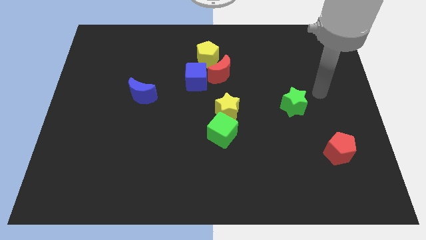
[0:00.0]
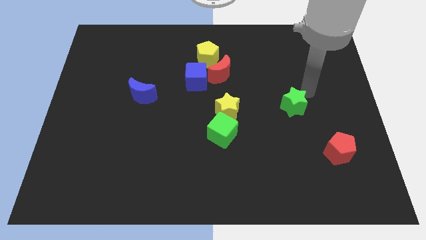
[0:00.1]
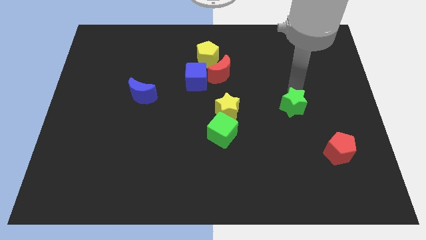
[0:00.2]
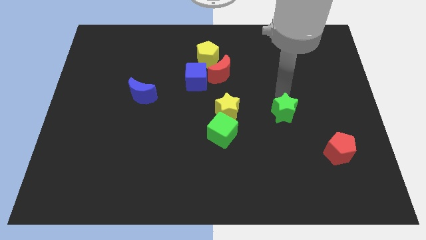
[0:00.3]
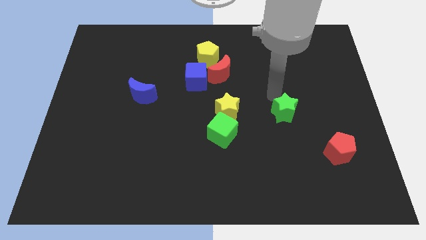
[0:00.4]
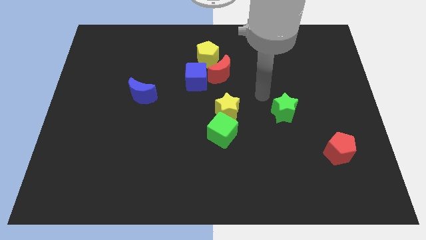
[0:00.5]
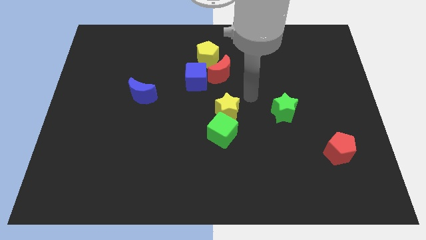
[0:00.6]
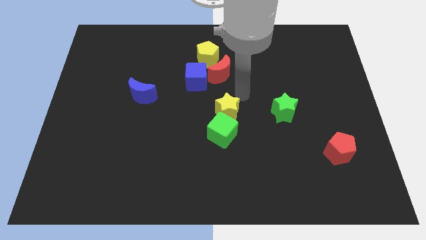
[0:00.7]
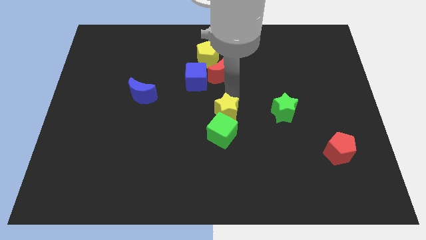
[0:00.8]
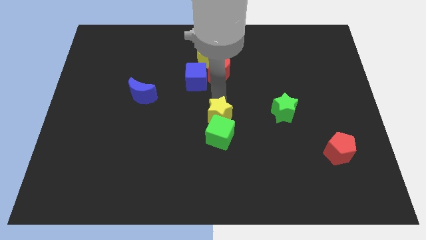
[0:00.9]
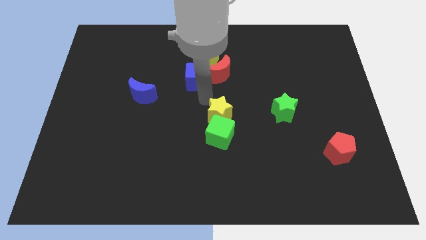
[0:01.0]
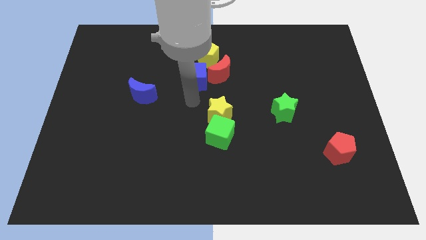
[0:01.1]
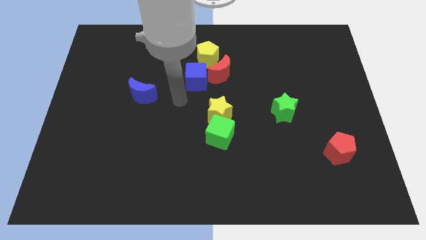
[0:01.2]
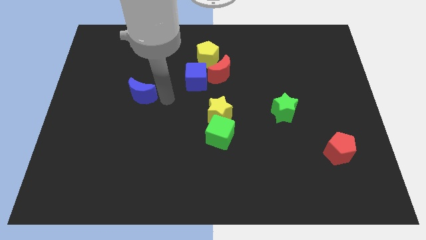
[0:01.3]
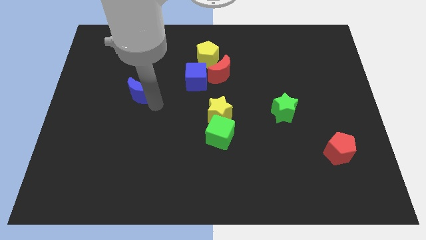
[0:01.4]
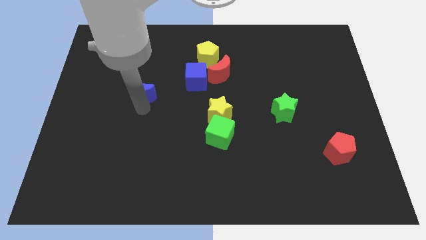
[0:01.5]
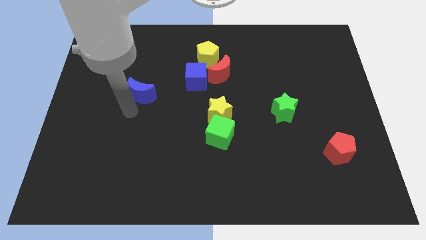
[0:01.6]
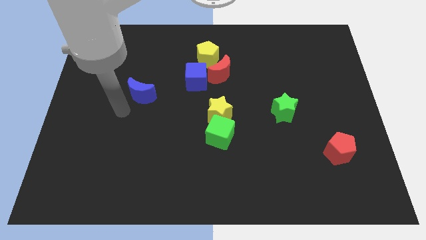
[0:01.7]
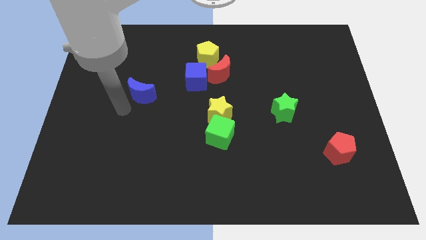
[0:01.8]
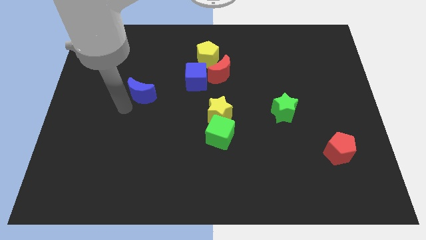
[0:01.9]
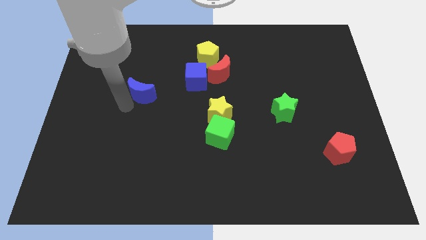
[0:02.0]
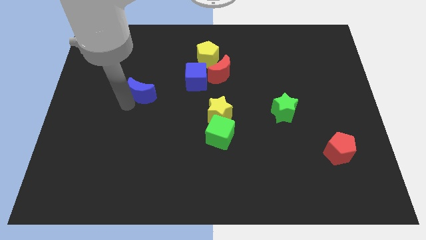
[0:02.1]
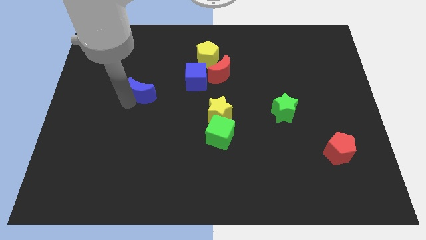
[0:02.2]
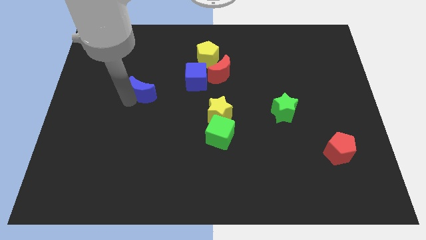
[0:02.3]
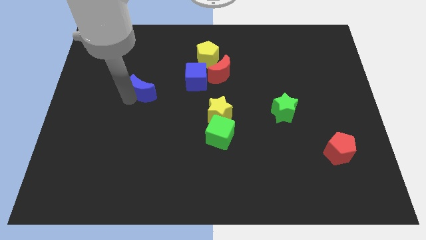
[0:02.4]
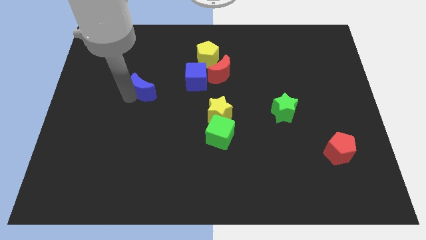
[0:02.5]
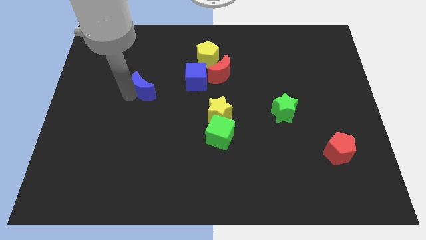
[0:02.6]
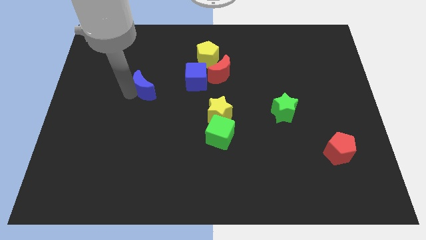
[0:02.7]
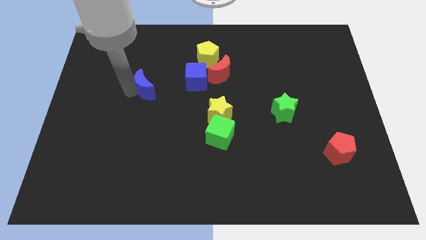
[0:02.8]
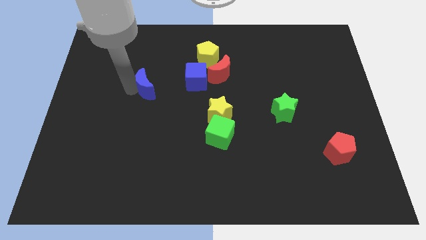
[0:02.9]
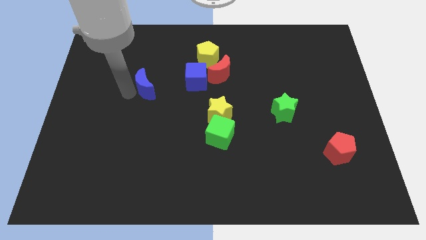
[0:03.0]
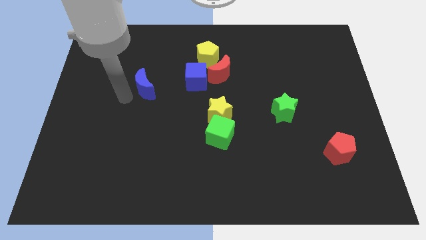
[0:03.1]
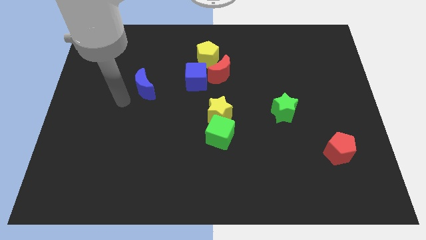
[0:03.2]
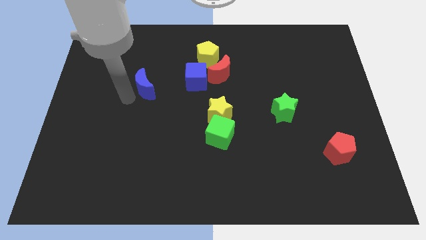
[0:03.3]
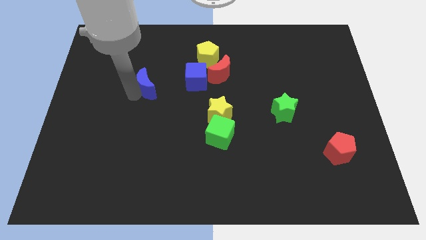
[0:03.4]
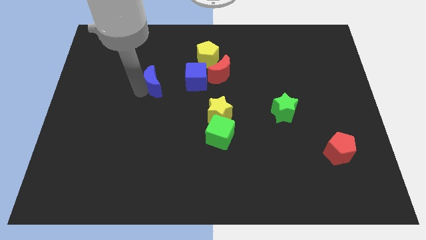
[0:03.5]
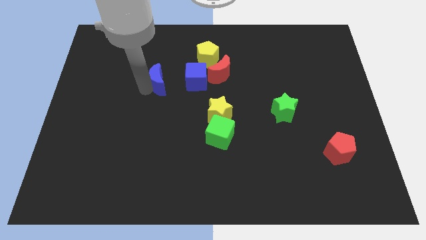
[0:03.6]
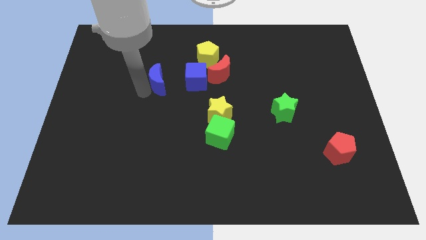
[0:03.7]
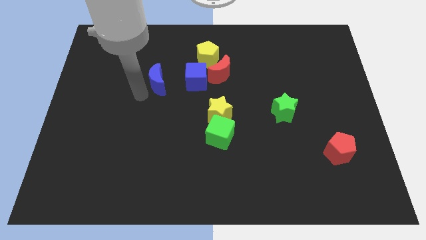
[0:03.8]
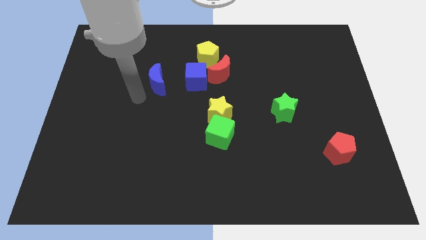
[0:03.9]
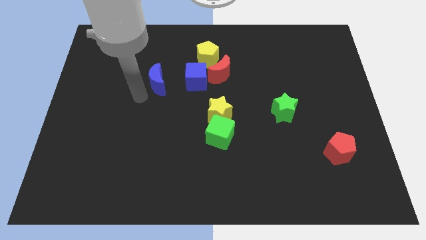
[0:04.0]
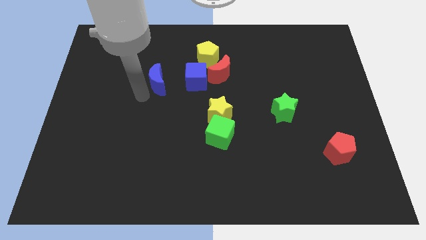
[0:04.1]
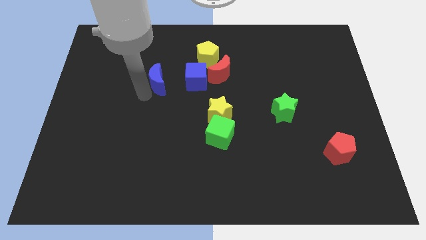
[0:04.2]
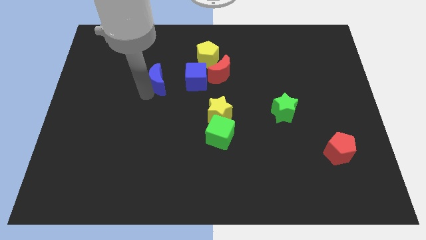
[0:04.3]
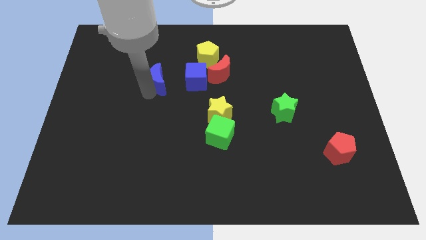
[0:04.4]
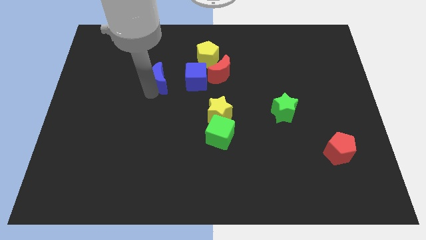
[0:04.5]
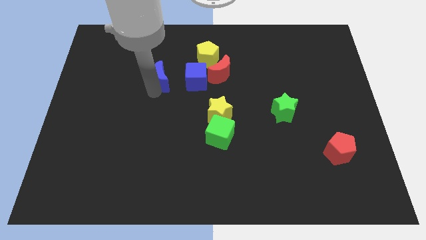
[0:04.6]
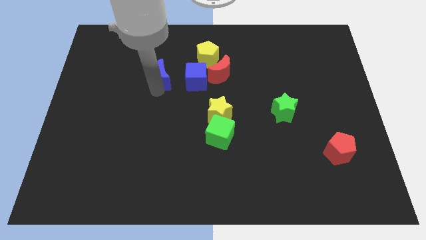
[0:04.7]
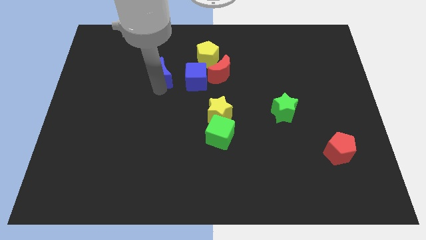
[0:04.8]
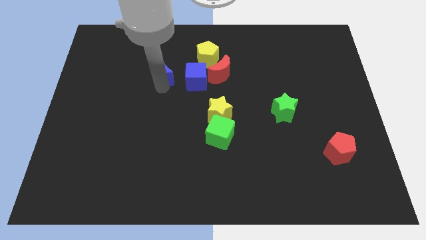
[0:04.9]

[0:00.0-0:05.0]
slide the blue moon diagonally up and to the left of the blue cube

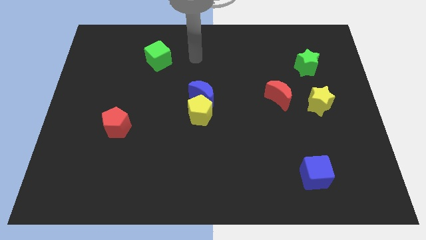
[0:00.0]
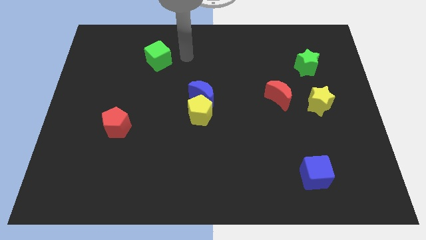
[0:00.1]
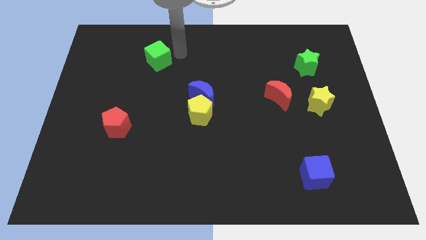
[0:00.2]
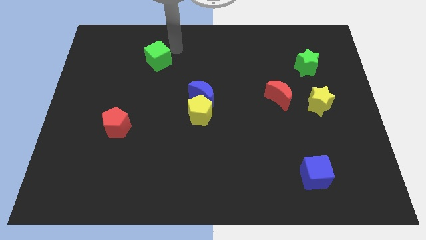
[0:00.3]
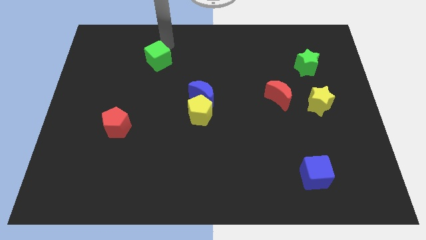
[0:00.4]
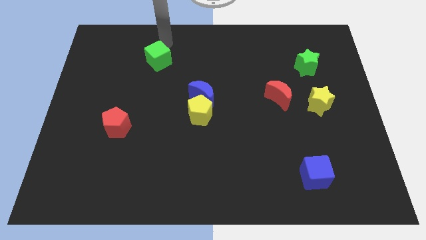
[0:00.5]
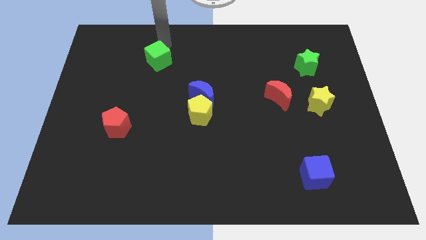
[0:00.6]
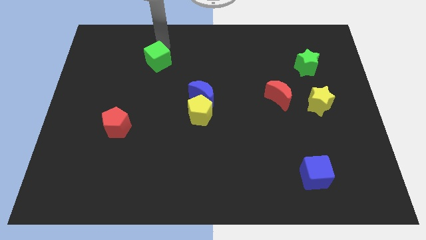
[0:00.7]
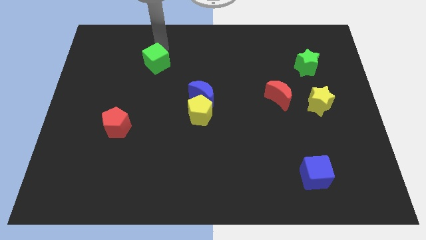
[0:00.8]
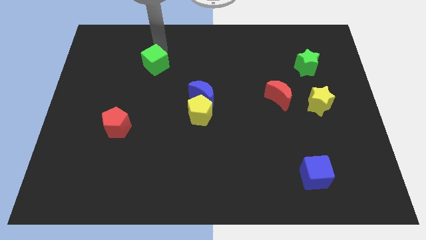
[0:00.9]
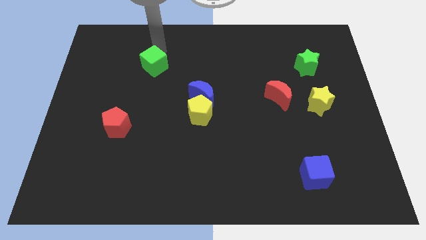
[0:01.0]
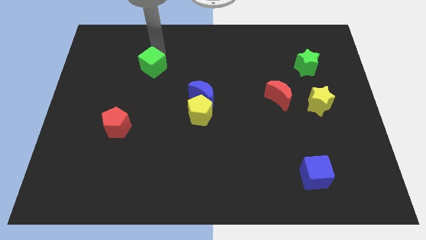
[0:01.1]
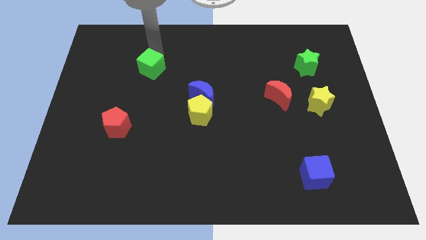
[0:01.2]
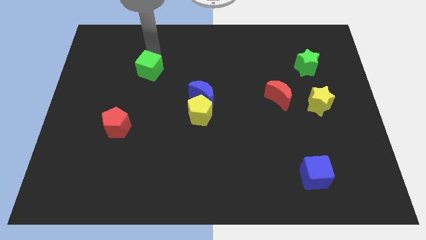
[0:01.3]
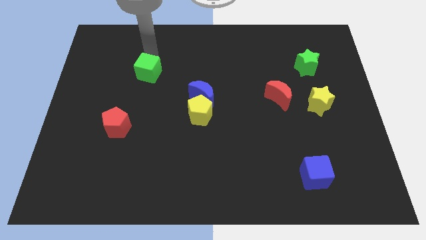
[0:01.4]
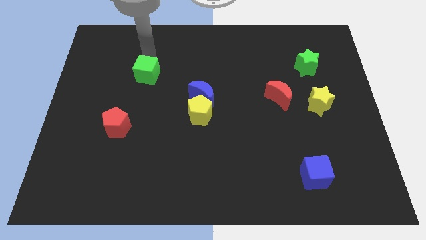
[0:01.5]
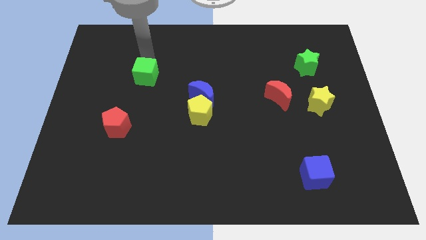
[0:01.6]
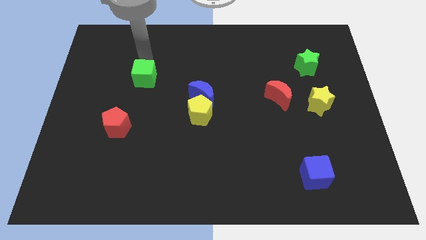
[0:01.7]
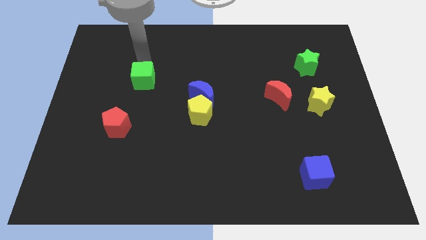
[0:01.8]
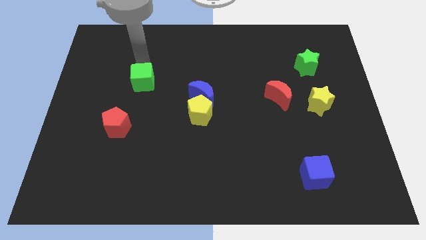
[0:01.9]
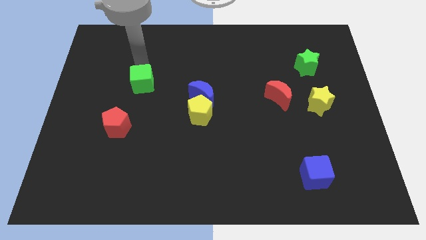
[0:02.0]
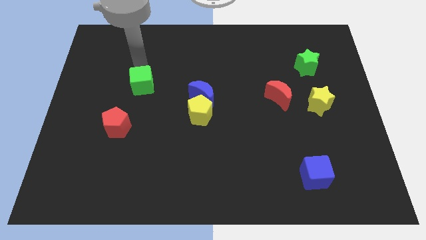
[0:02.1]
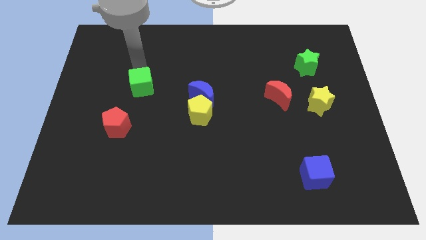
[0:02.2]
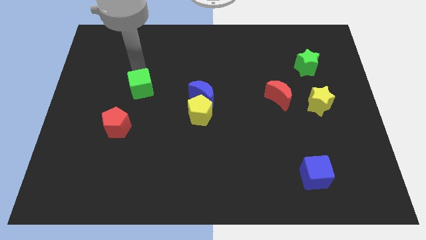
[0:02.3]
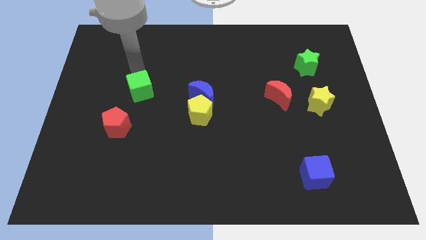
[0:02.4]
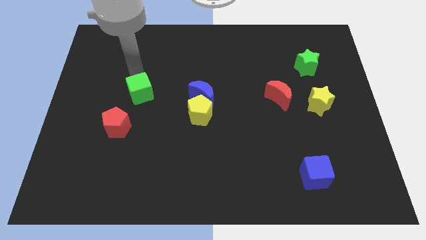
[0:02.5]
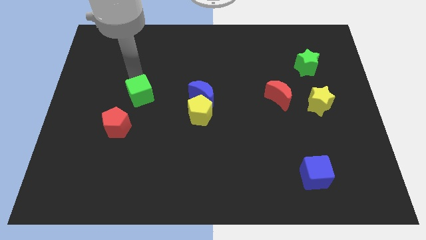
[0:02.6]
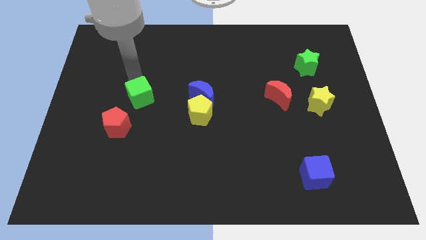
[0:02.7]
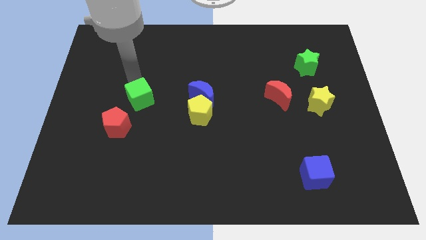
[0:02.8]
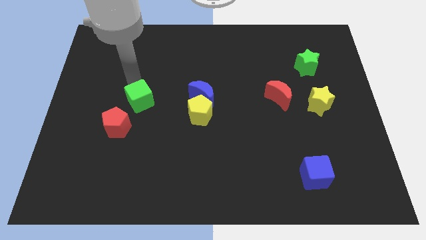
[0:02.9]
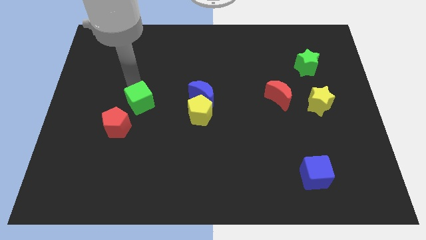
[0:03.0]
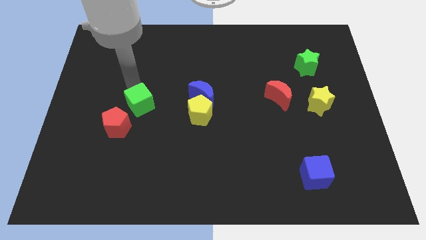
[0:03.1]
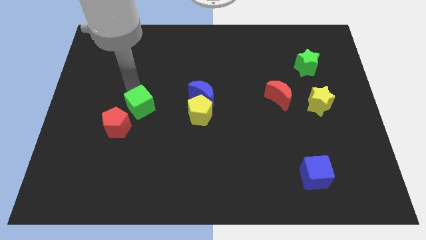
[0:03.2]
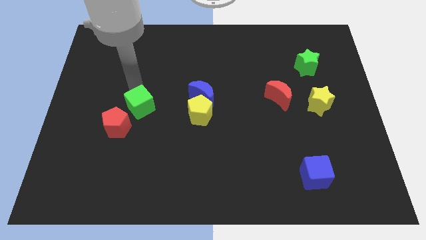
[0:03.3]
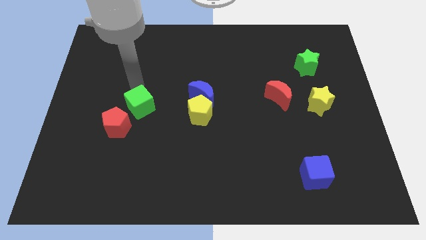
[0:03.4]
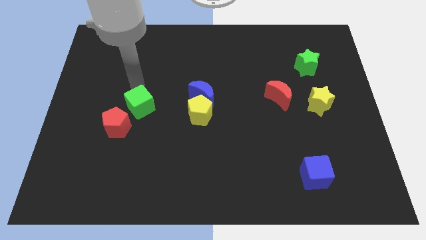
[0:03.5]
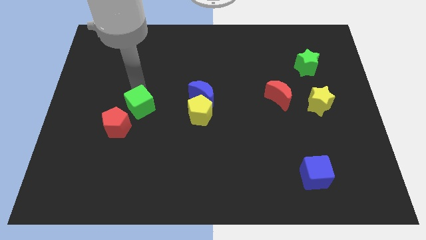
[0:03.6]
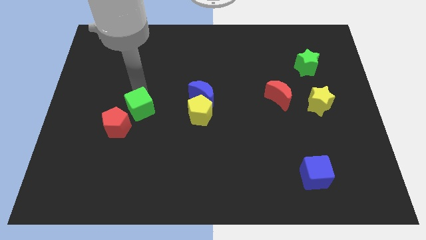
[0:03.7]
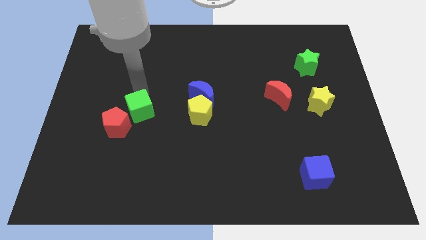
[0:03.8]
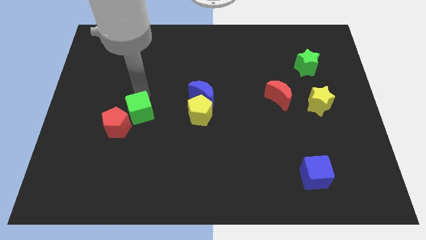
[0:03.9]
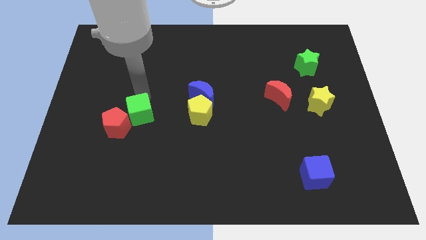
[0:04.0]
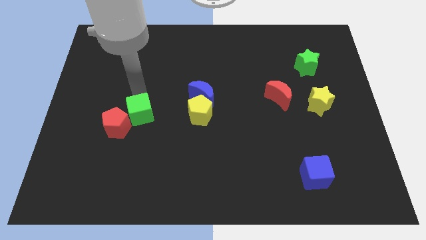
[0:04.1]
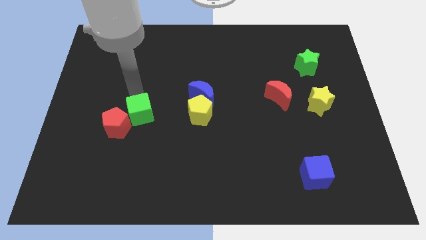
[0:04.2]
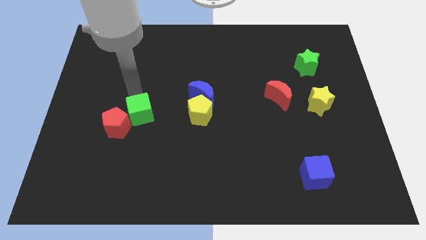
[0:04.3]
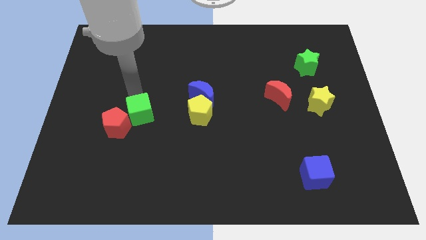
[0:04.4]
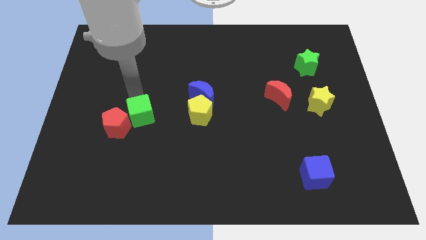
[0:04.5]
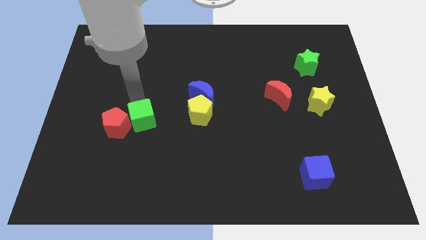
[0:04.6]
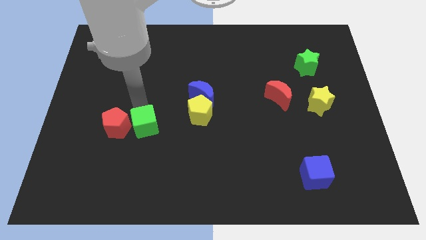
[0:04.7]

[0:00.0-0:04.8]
push the green cube diagonally down and to the right of the red pentagon
